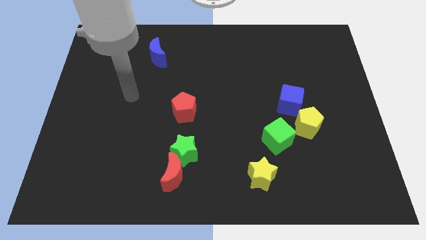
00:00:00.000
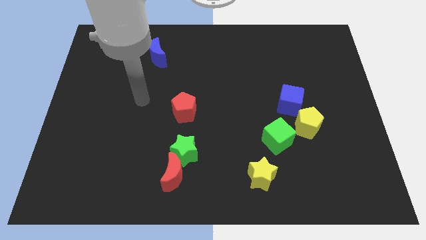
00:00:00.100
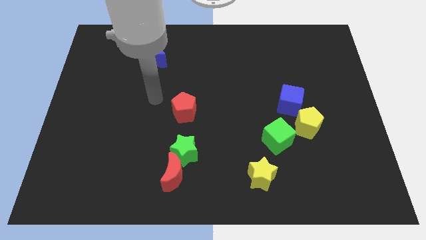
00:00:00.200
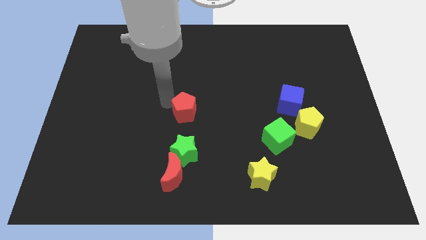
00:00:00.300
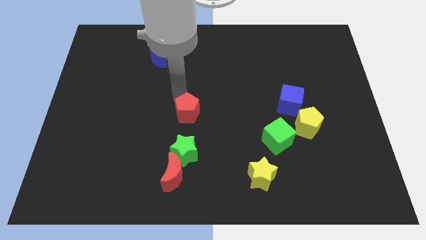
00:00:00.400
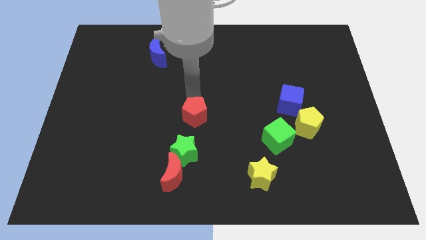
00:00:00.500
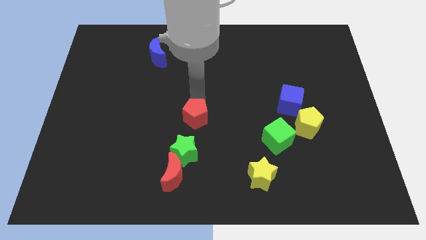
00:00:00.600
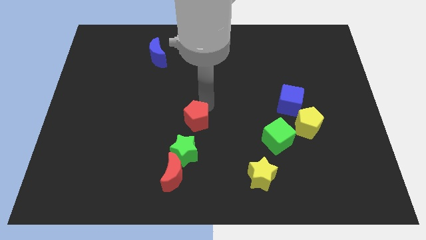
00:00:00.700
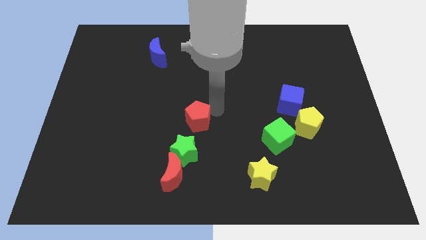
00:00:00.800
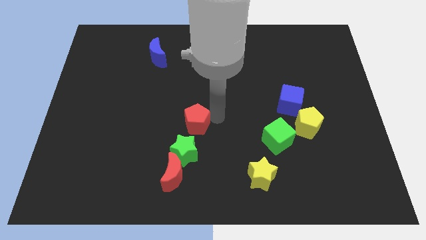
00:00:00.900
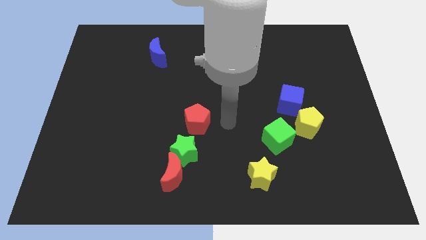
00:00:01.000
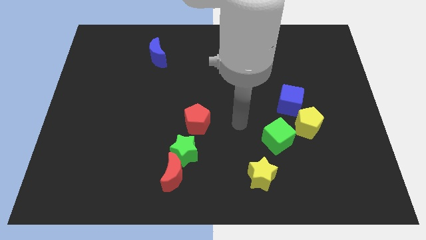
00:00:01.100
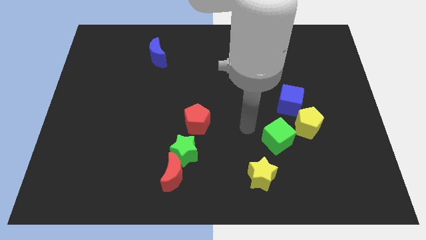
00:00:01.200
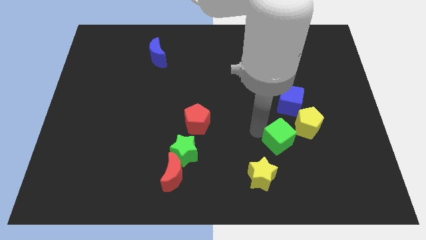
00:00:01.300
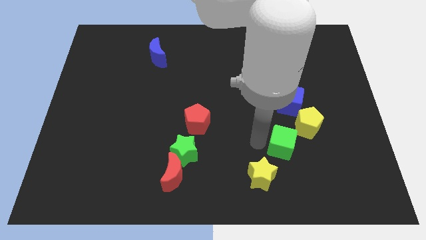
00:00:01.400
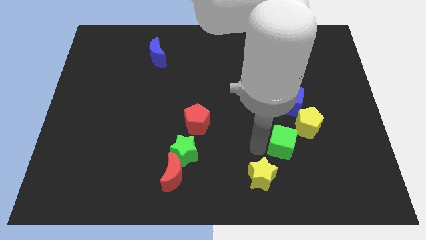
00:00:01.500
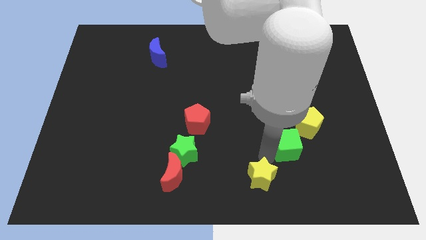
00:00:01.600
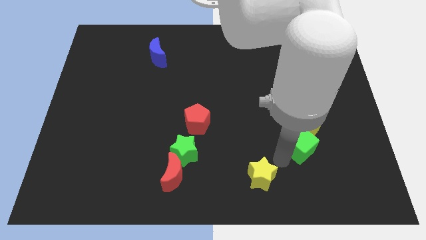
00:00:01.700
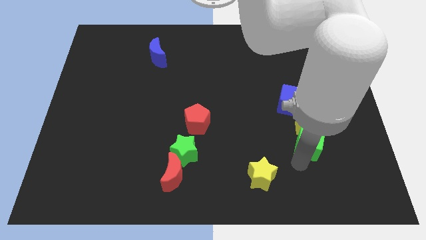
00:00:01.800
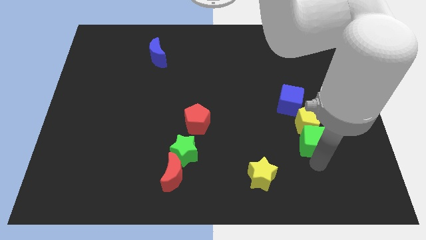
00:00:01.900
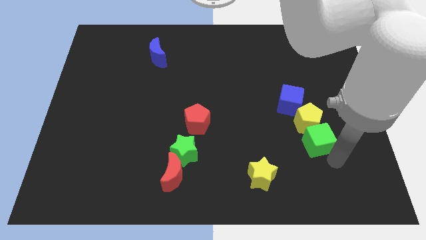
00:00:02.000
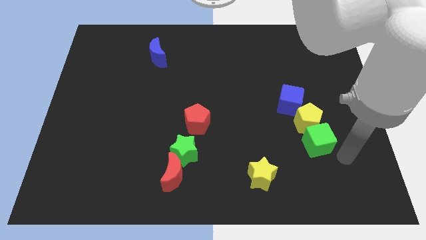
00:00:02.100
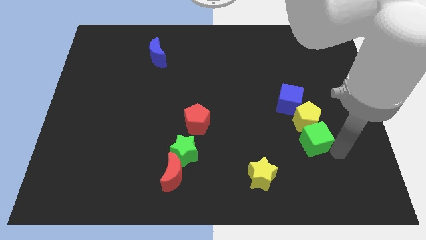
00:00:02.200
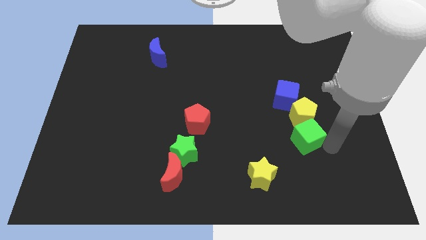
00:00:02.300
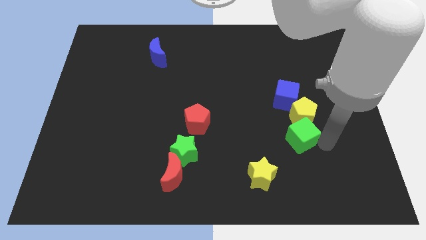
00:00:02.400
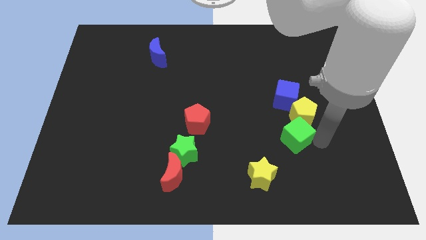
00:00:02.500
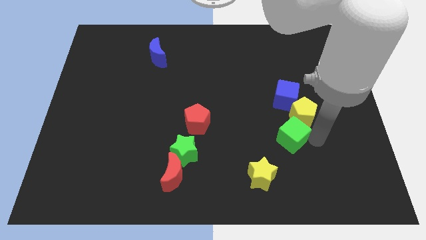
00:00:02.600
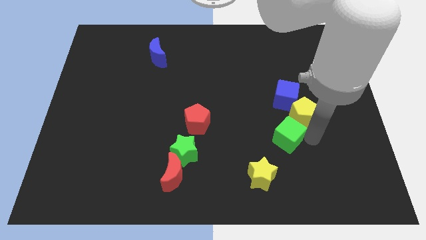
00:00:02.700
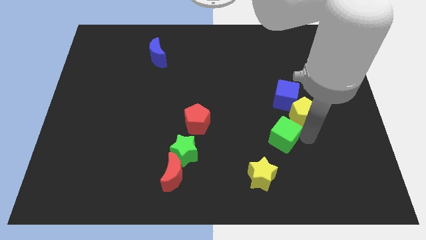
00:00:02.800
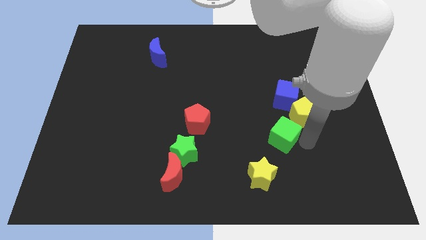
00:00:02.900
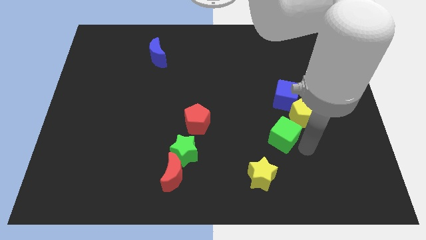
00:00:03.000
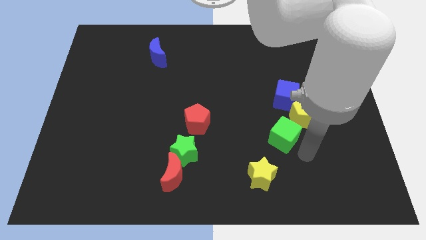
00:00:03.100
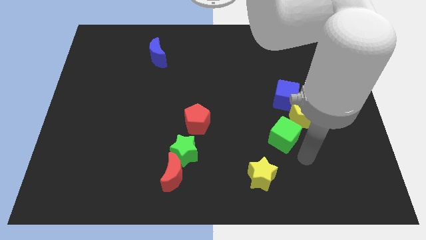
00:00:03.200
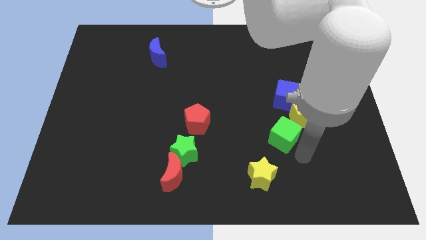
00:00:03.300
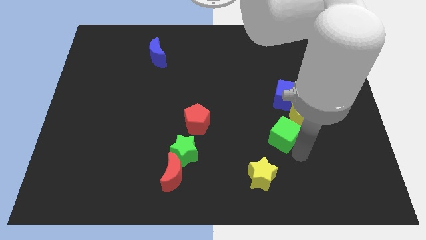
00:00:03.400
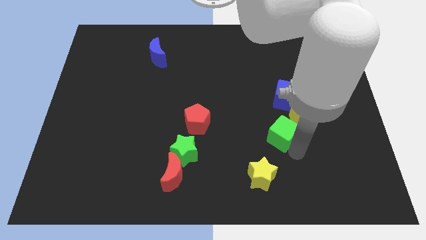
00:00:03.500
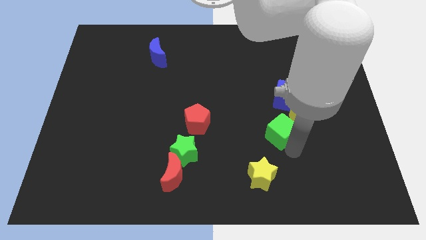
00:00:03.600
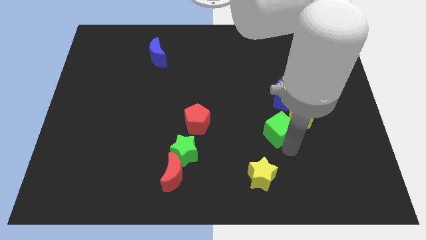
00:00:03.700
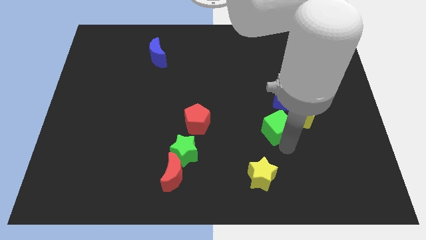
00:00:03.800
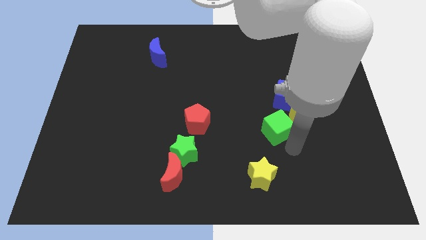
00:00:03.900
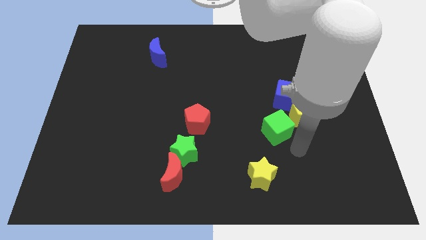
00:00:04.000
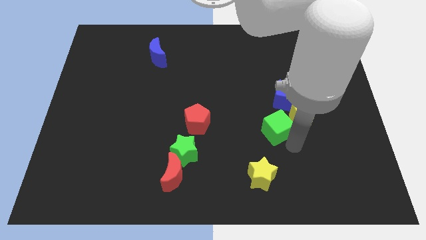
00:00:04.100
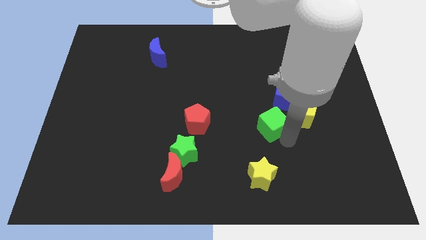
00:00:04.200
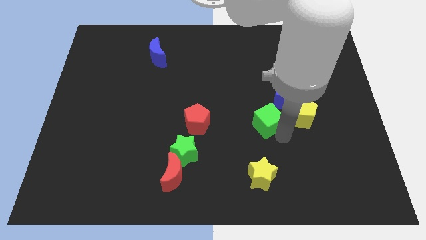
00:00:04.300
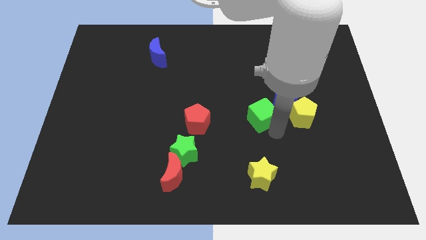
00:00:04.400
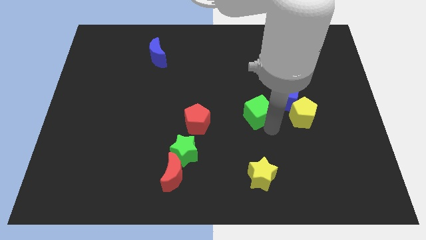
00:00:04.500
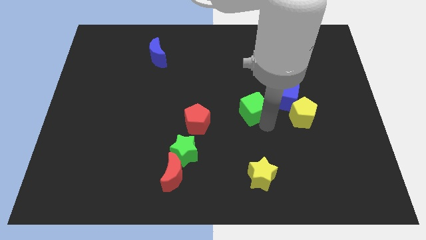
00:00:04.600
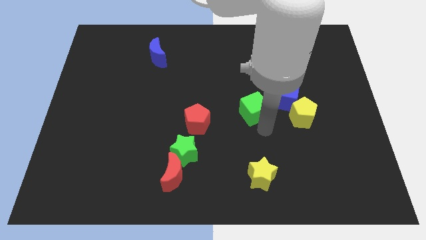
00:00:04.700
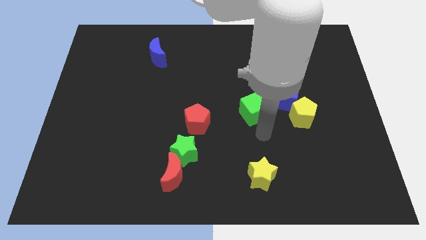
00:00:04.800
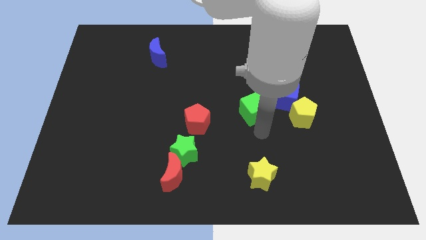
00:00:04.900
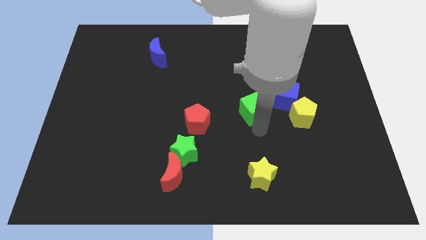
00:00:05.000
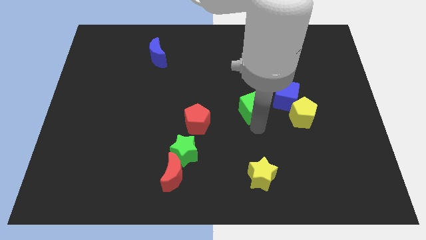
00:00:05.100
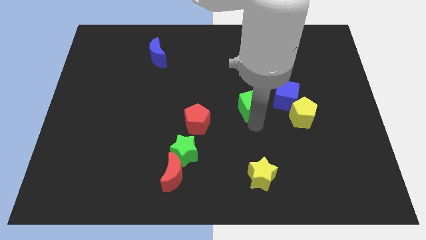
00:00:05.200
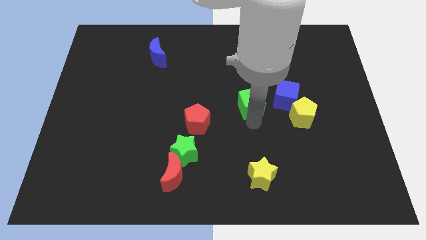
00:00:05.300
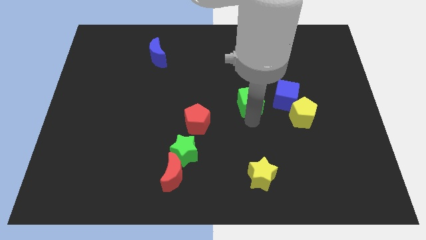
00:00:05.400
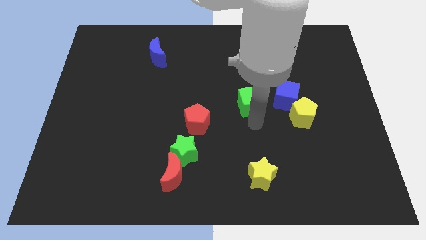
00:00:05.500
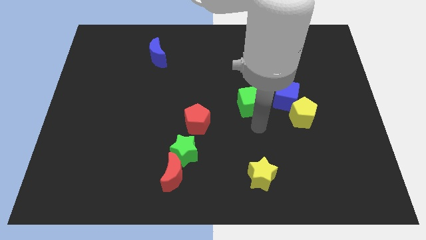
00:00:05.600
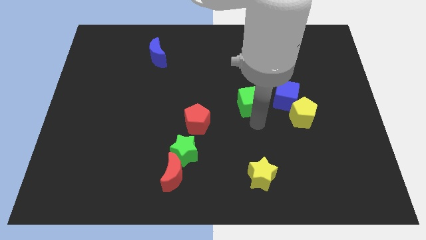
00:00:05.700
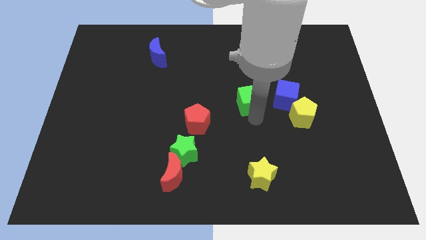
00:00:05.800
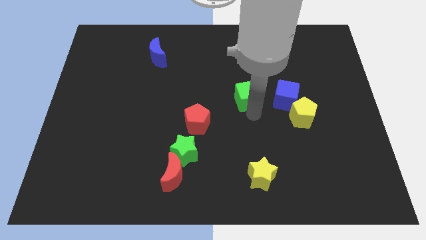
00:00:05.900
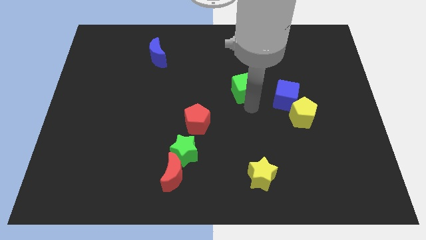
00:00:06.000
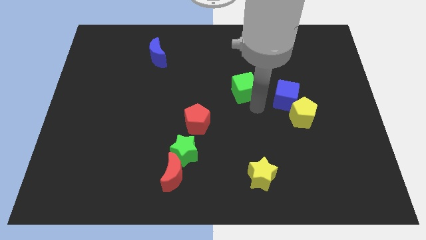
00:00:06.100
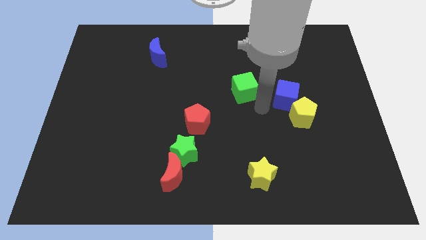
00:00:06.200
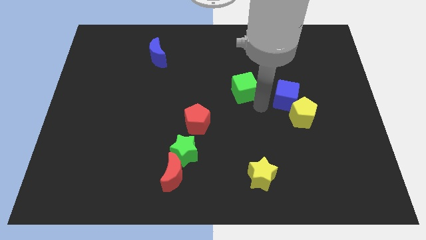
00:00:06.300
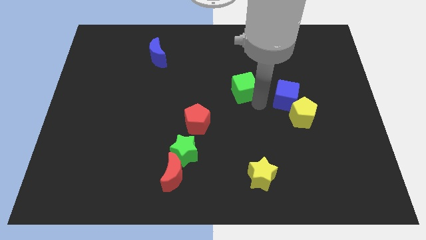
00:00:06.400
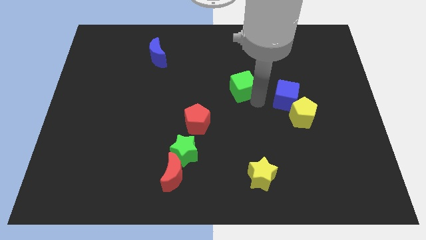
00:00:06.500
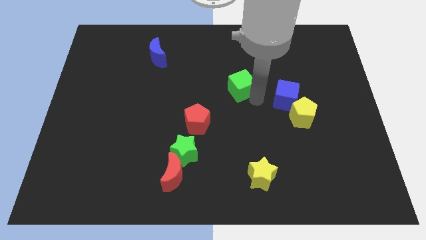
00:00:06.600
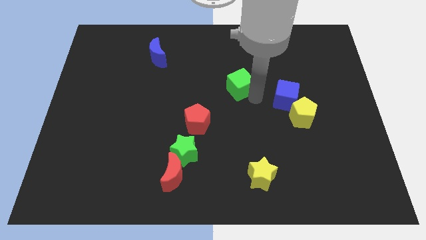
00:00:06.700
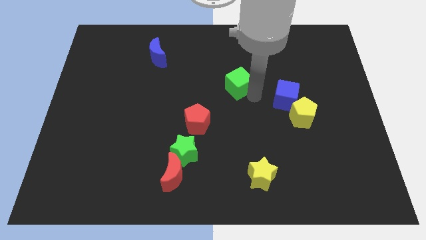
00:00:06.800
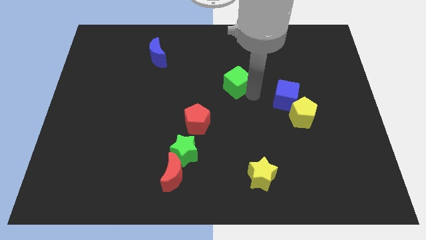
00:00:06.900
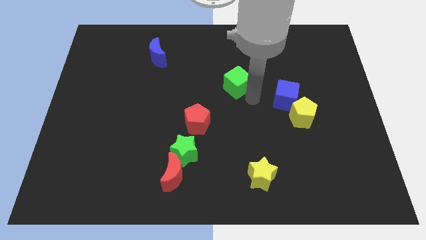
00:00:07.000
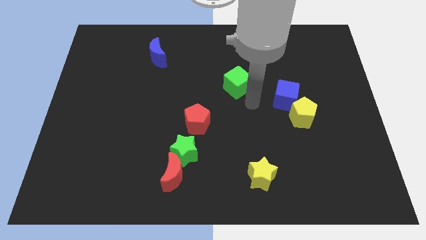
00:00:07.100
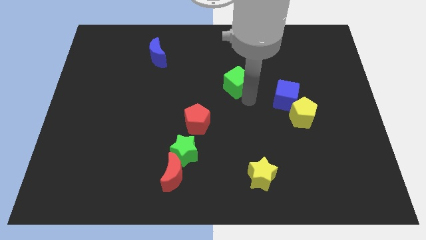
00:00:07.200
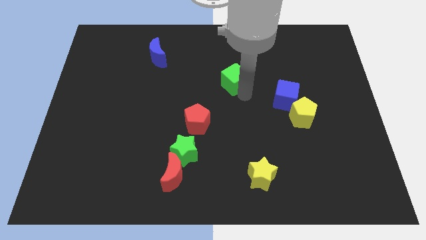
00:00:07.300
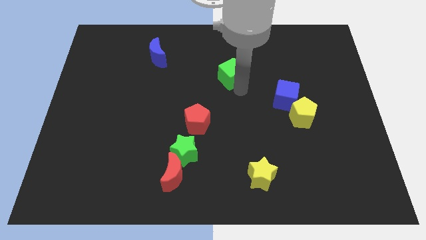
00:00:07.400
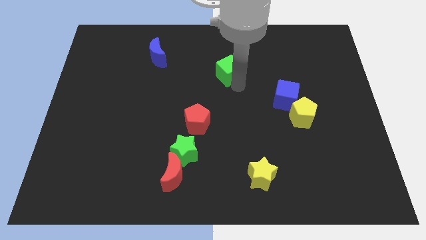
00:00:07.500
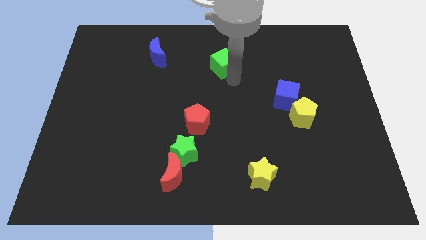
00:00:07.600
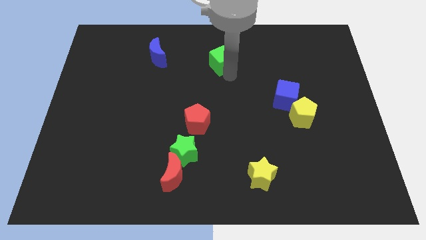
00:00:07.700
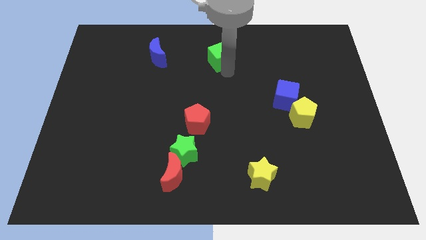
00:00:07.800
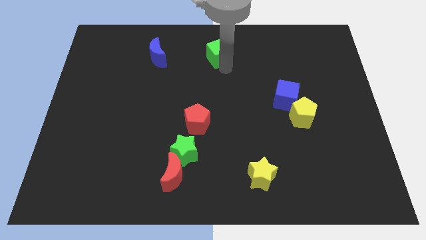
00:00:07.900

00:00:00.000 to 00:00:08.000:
push the green cube to the top side
